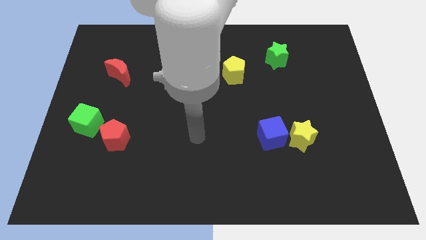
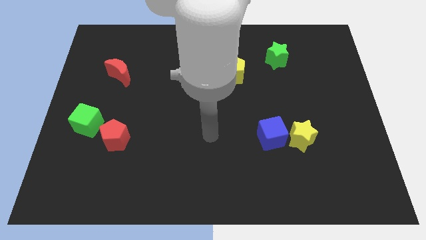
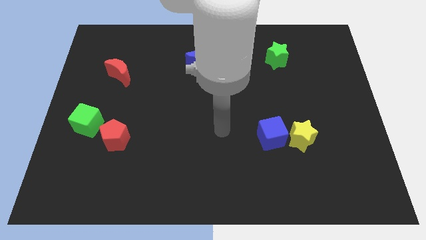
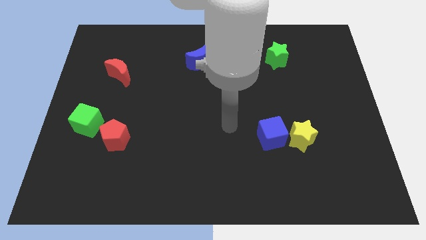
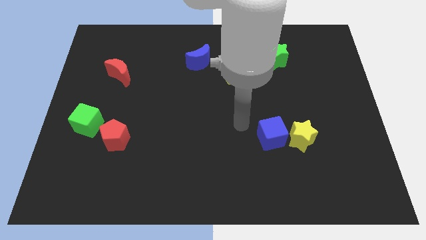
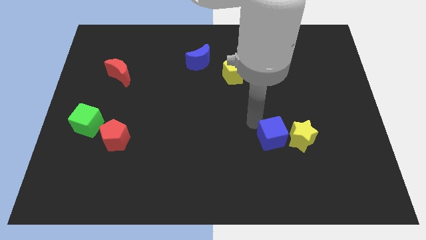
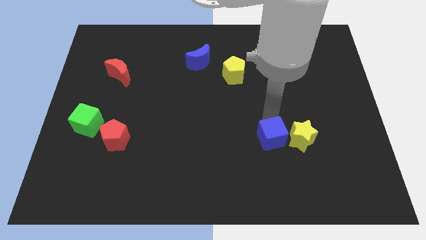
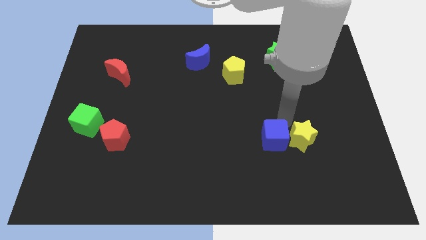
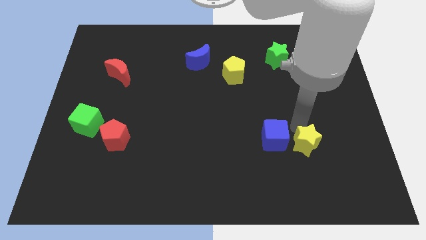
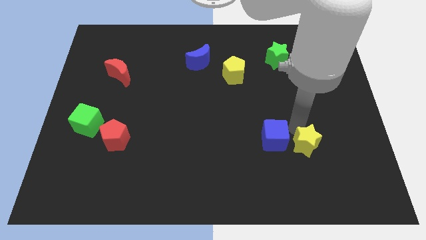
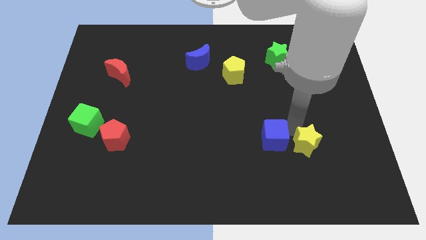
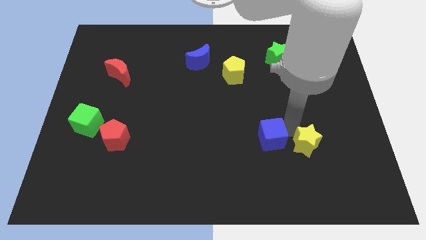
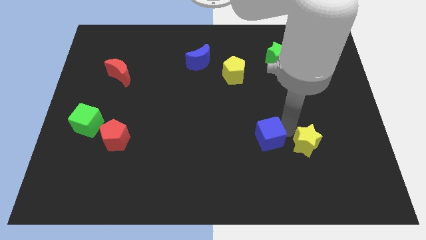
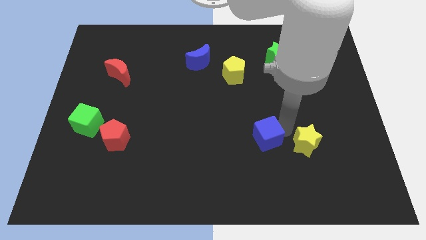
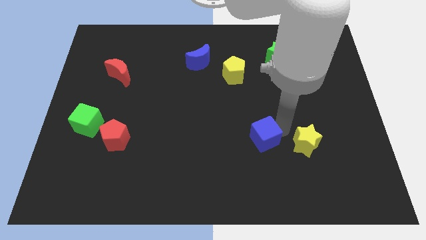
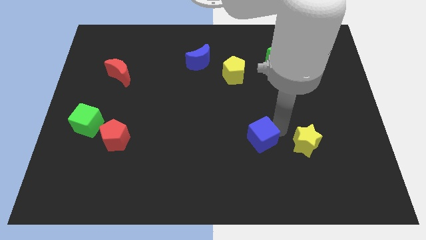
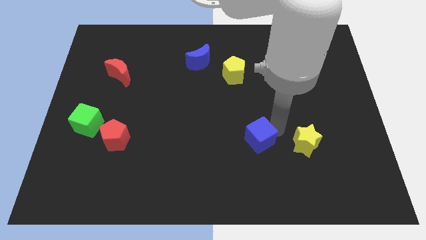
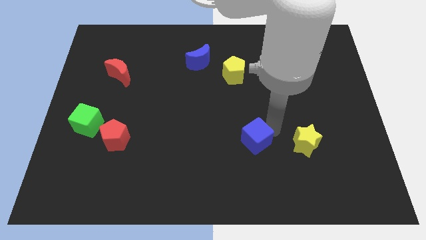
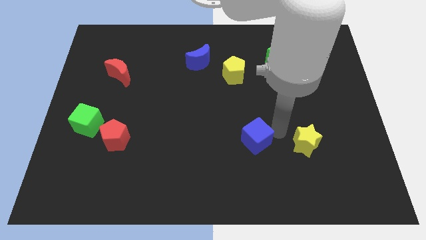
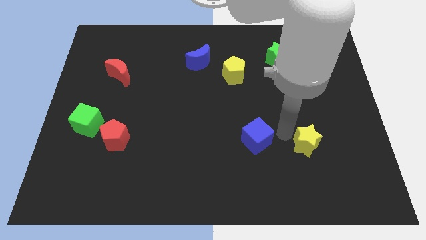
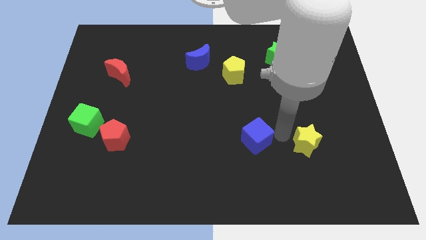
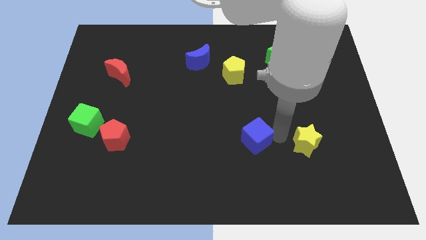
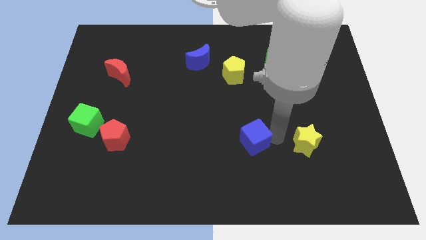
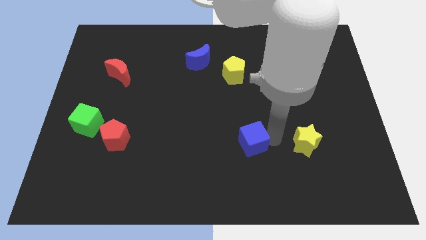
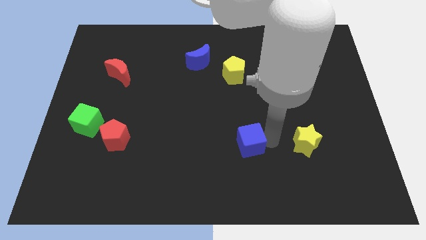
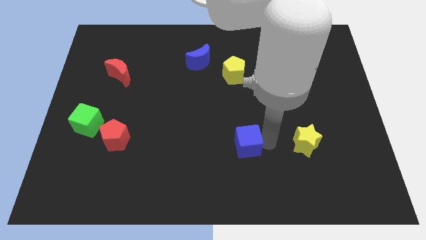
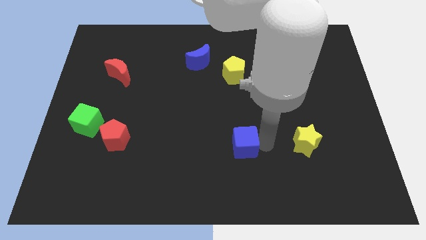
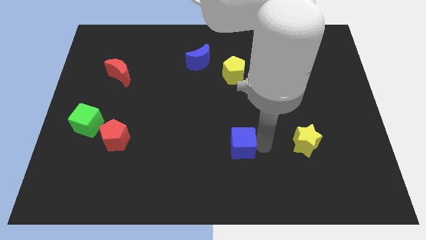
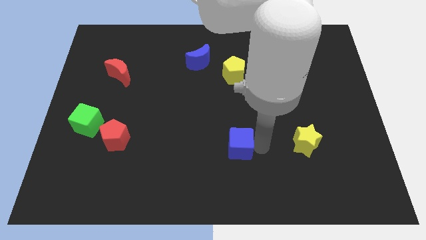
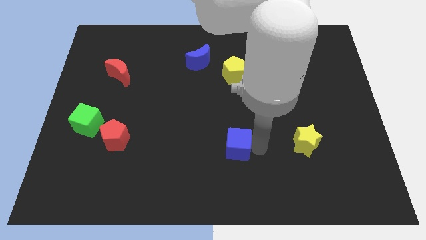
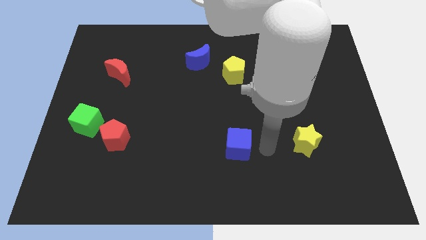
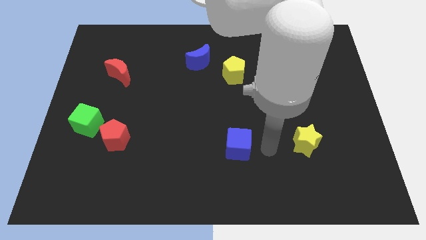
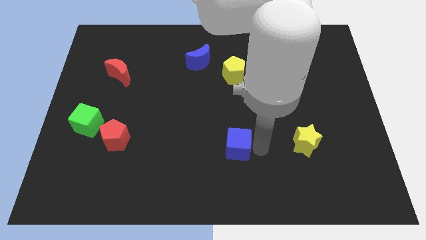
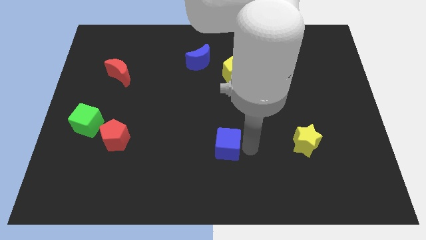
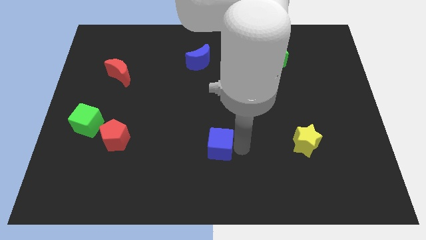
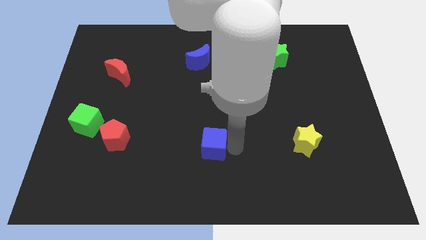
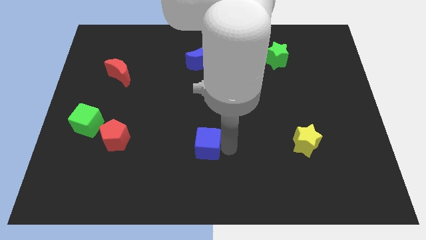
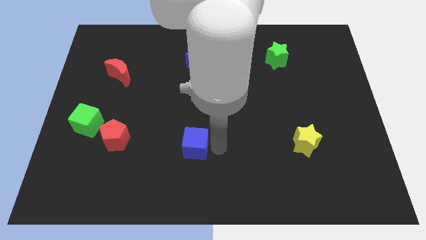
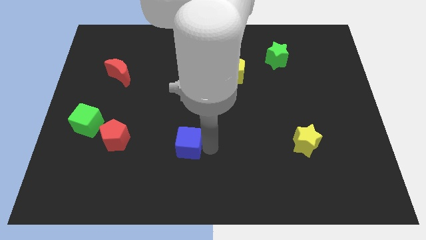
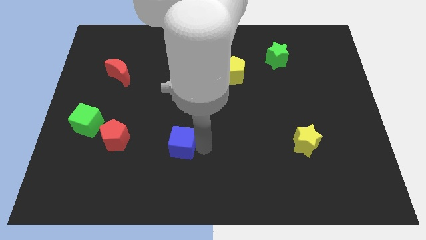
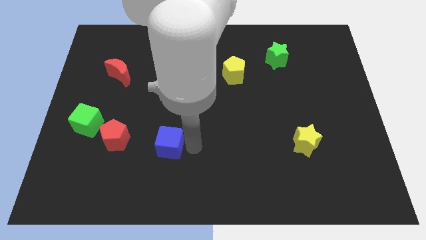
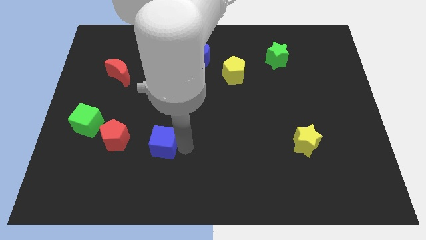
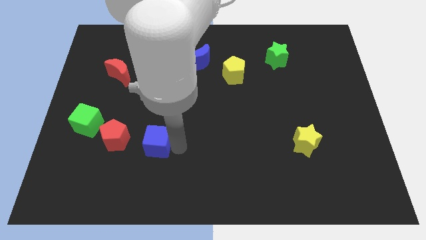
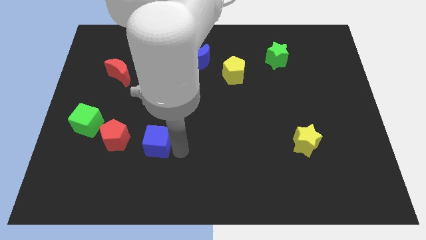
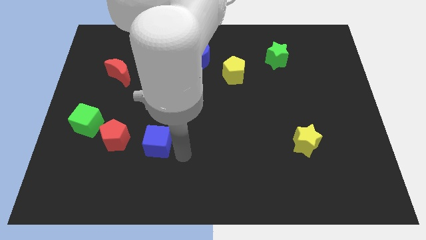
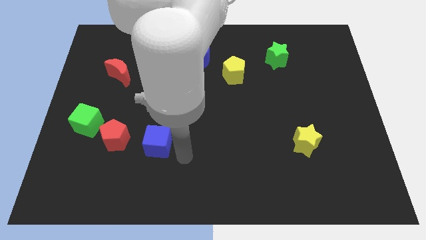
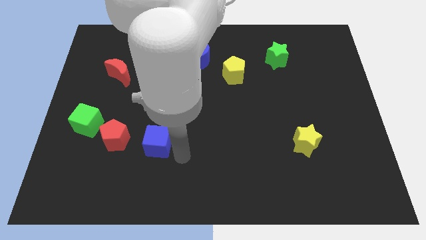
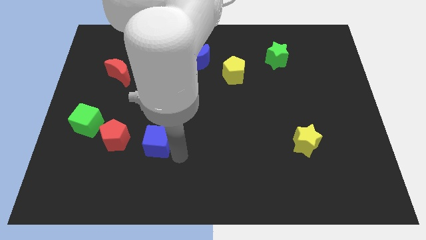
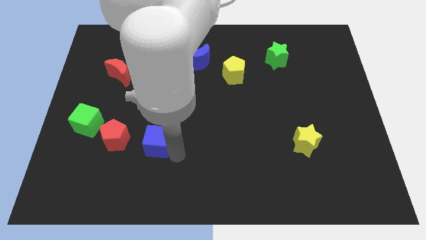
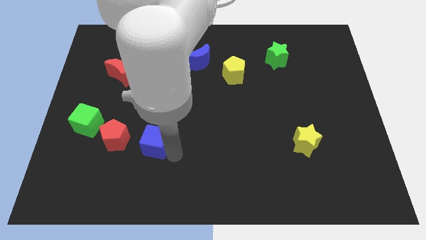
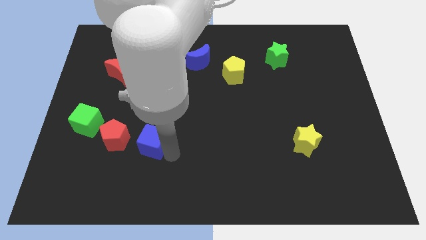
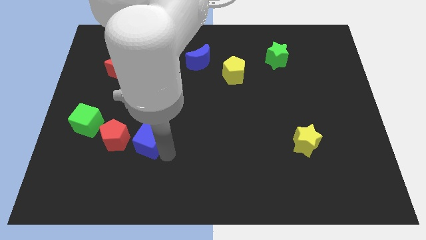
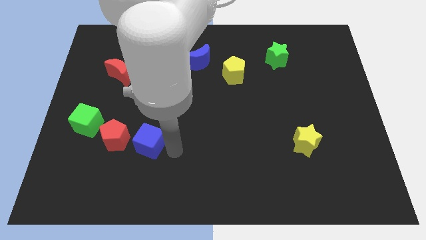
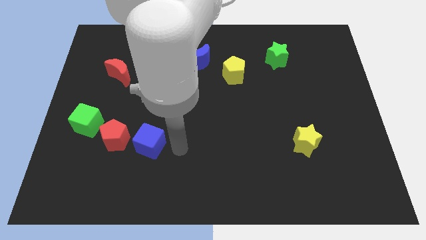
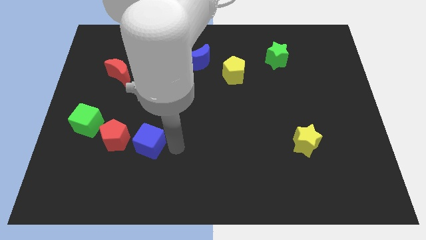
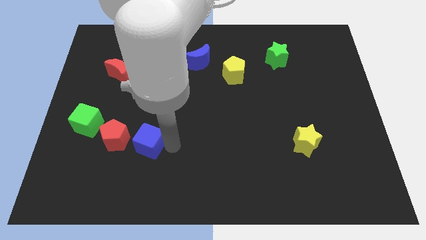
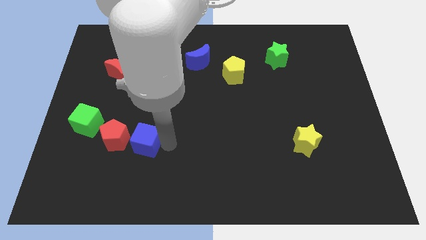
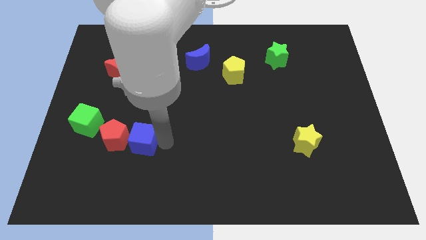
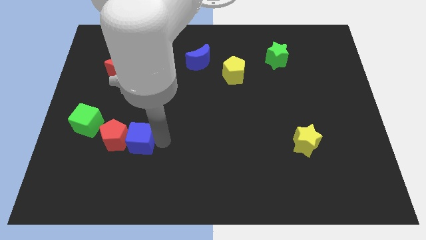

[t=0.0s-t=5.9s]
push the blue cube to the red pentagon

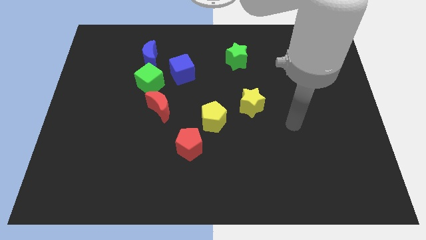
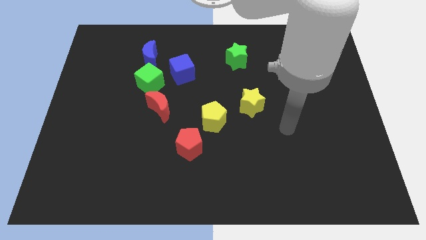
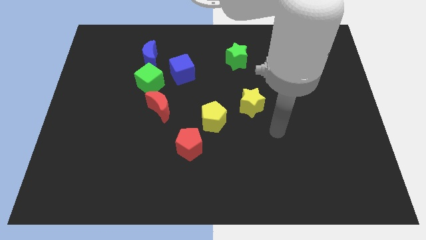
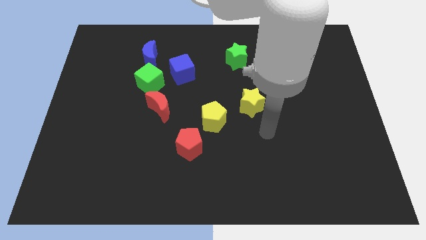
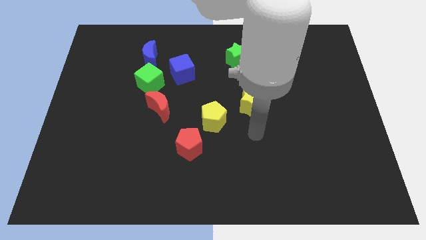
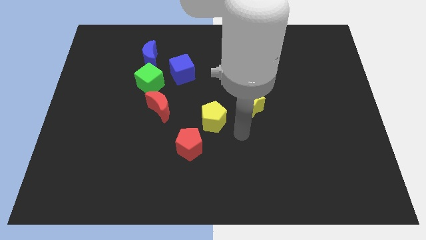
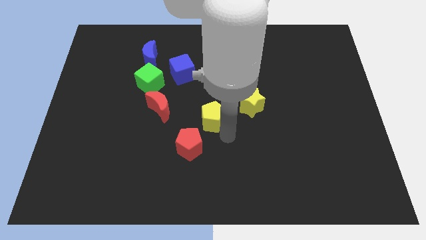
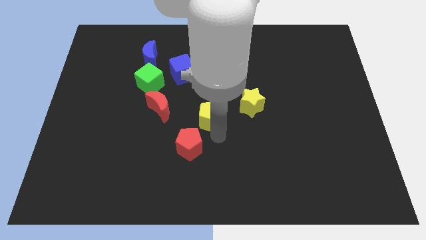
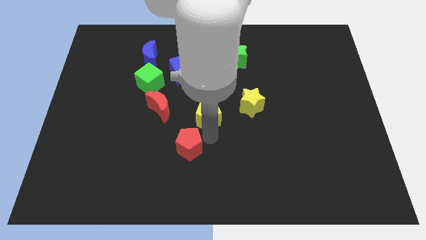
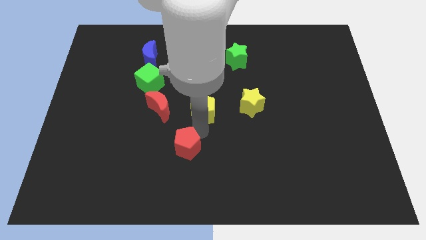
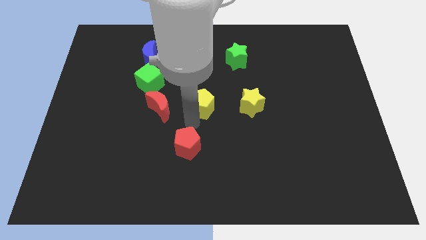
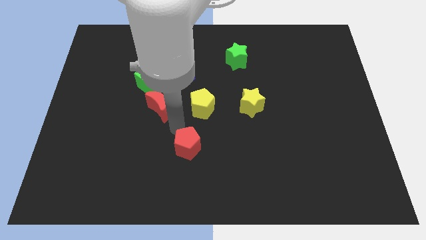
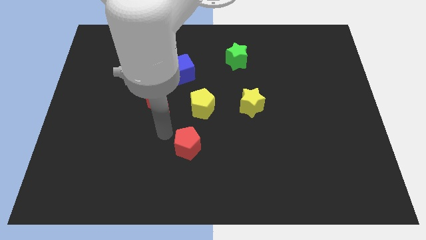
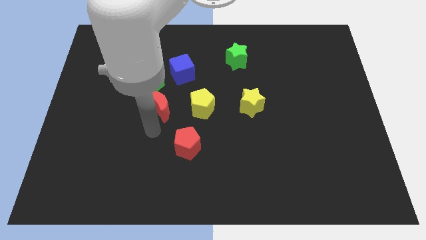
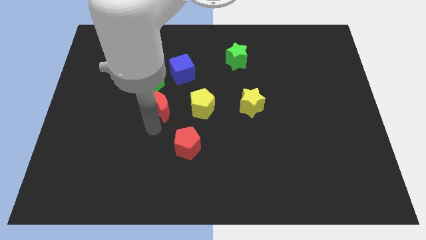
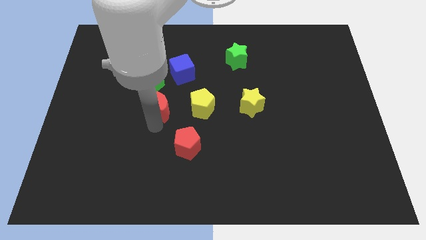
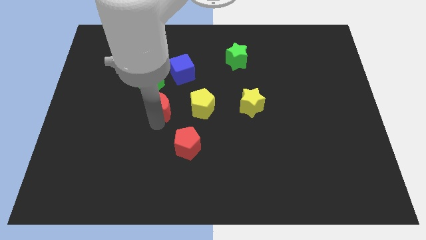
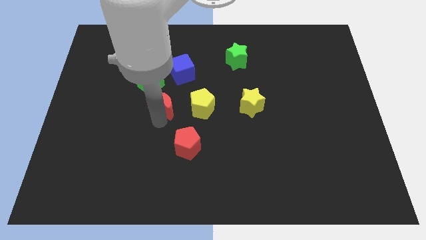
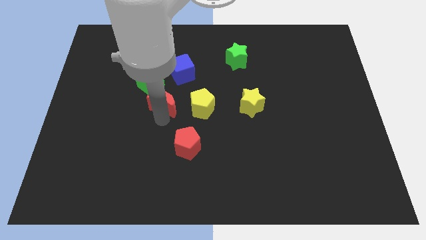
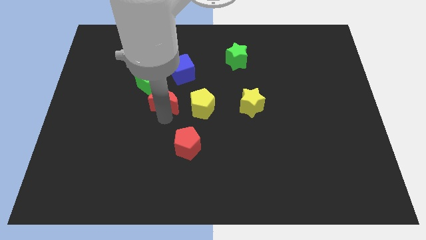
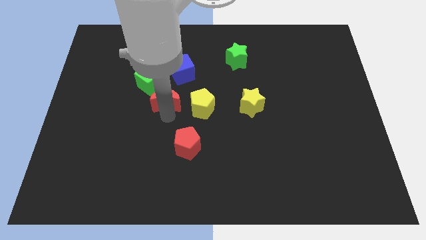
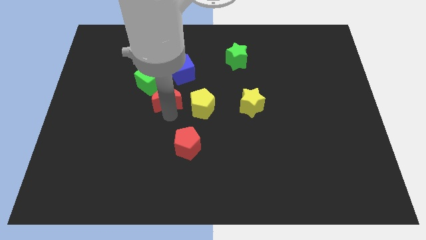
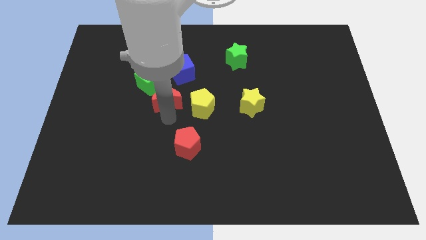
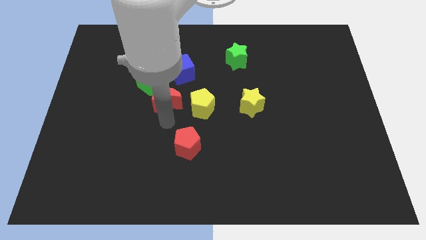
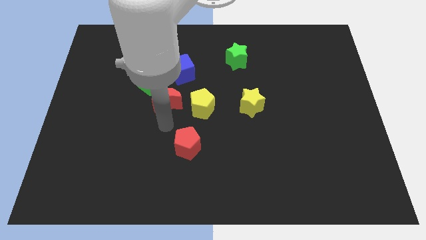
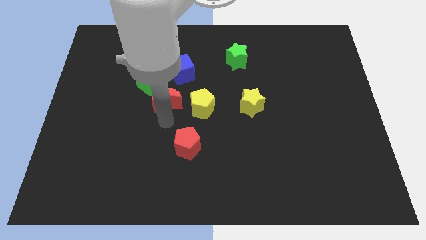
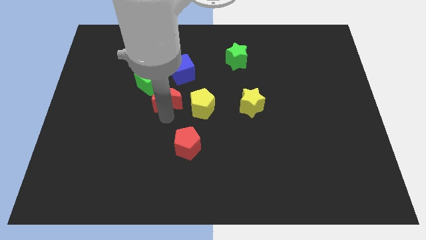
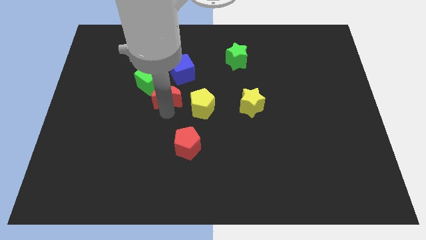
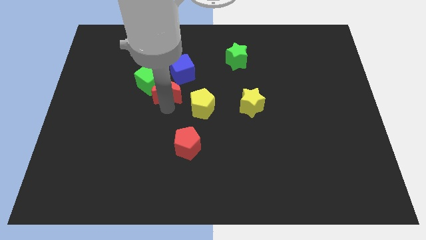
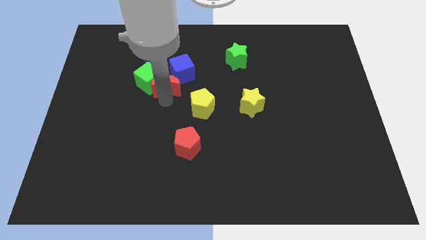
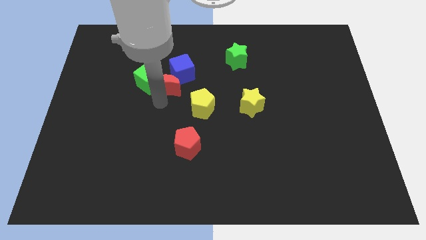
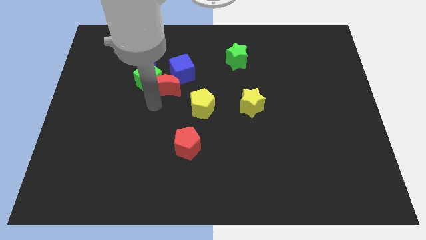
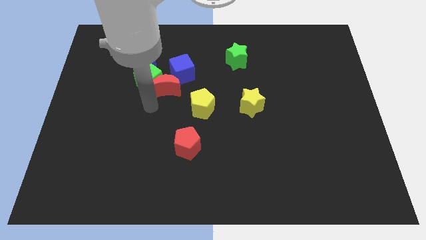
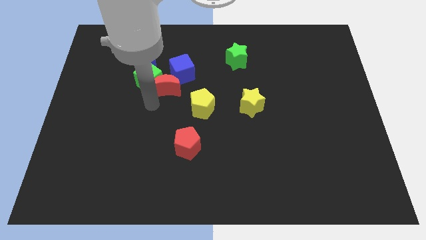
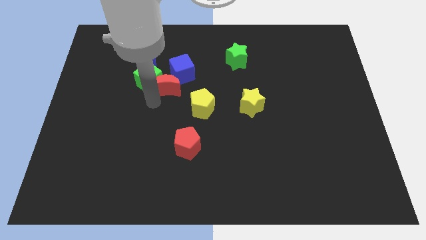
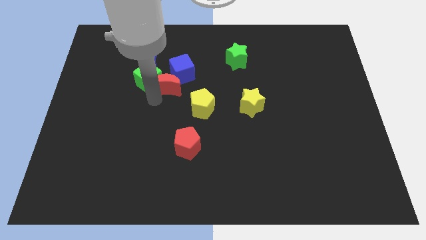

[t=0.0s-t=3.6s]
push the red moon towards the blue cube
